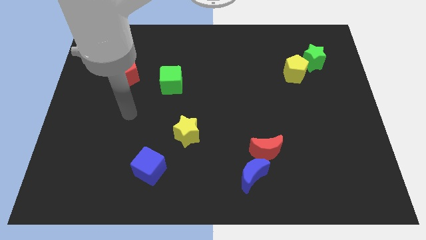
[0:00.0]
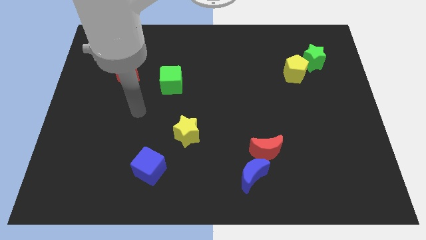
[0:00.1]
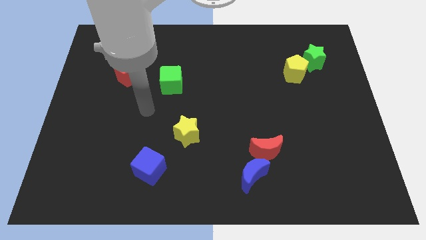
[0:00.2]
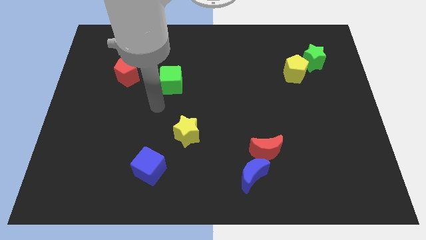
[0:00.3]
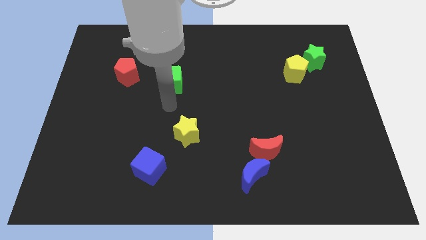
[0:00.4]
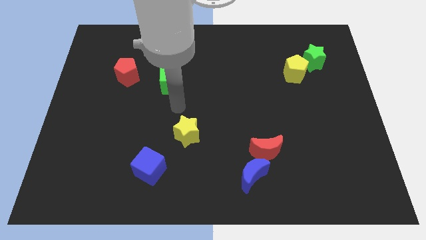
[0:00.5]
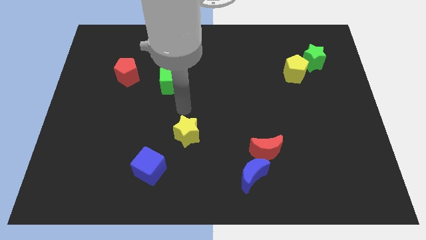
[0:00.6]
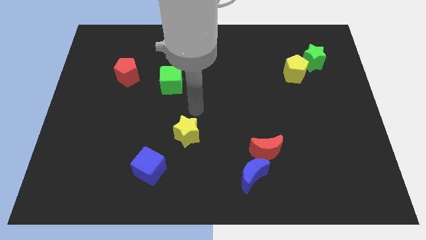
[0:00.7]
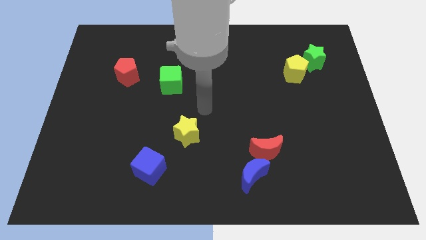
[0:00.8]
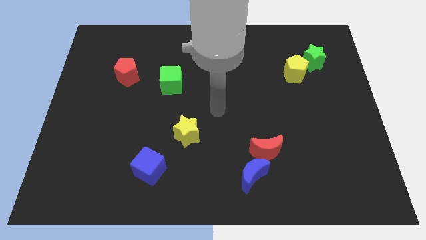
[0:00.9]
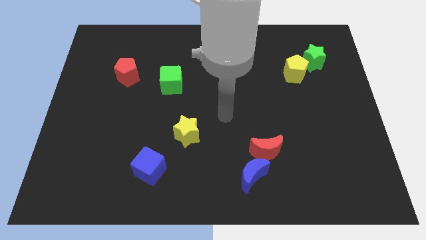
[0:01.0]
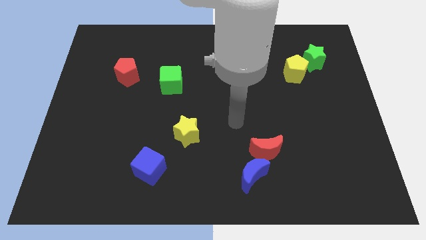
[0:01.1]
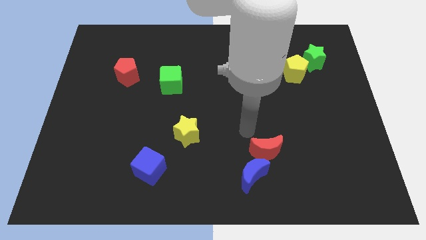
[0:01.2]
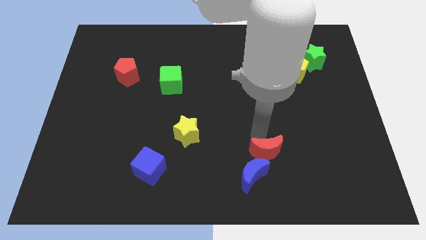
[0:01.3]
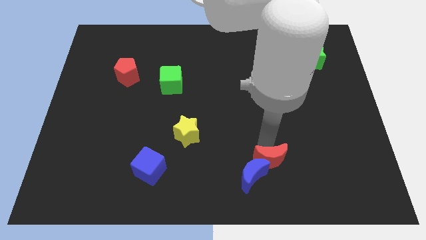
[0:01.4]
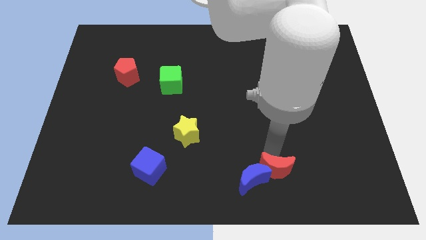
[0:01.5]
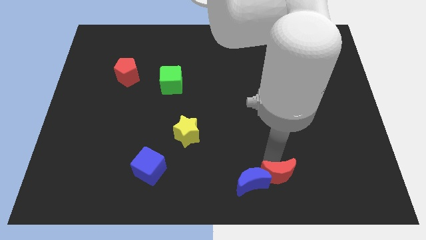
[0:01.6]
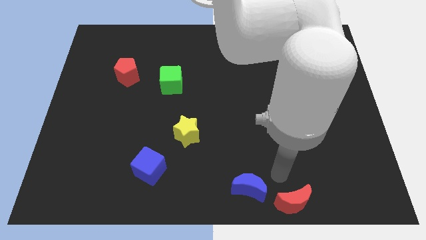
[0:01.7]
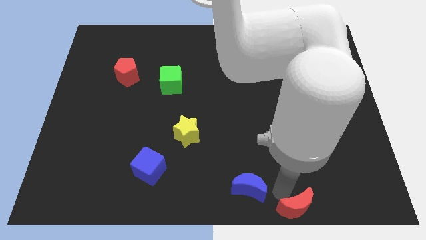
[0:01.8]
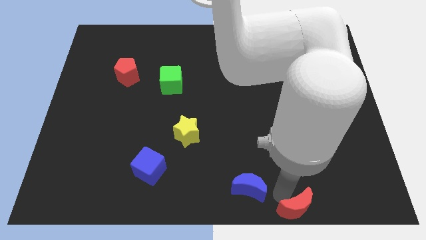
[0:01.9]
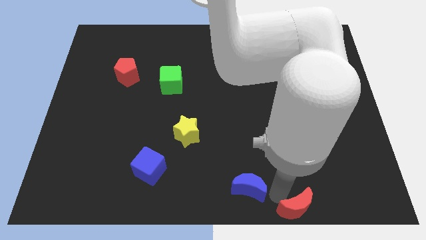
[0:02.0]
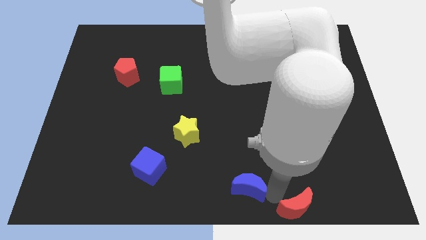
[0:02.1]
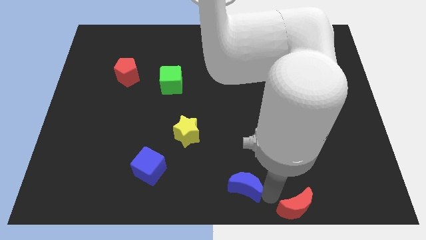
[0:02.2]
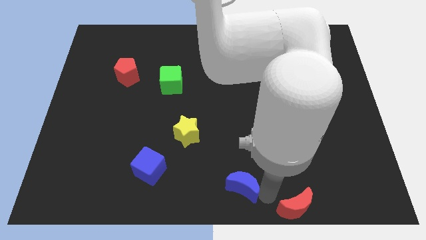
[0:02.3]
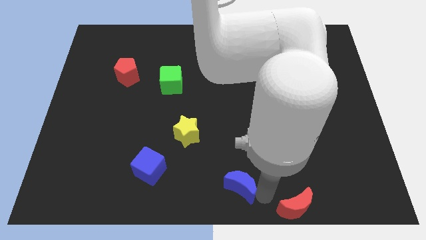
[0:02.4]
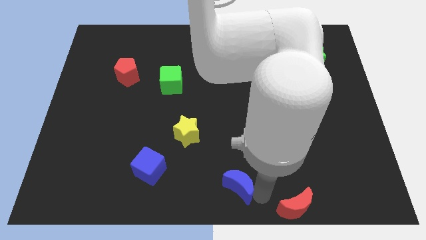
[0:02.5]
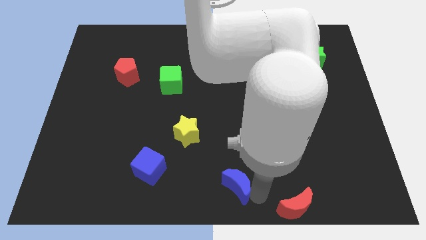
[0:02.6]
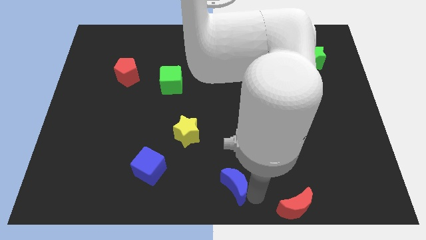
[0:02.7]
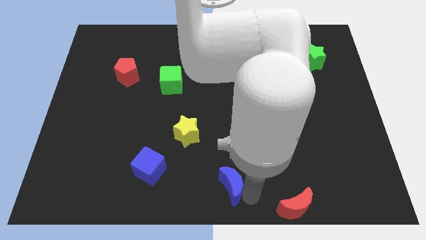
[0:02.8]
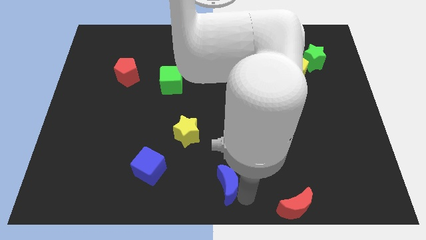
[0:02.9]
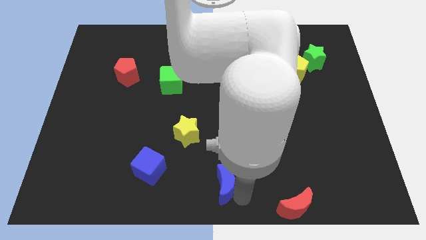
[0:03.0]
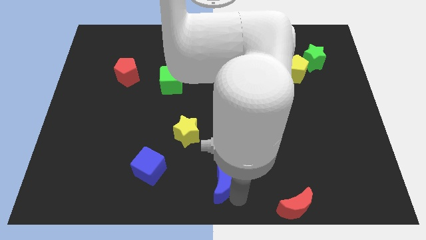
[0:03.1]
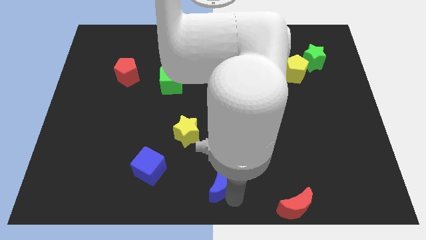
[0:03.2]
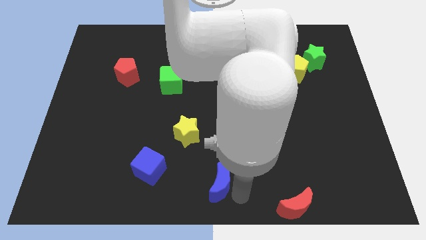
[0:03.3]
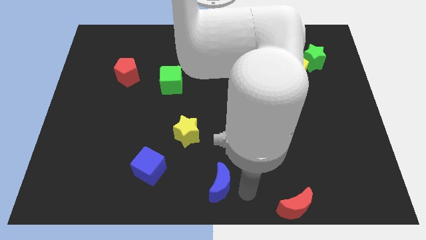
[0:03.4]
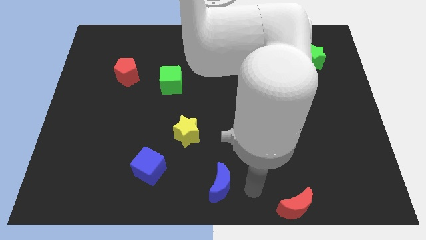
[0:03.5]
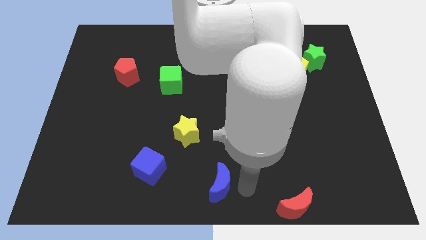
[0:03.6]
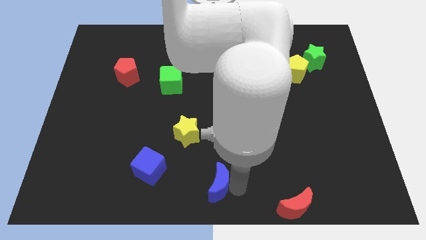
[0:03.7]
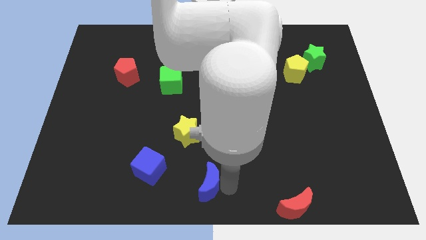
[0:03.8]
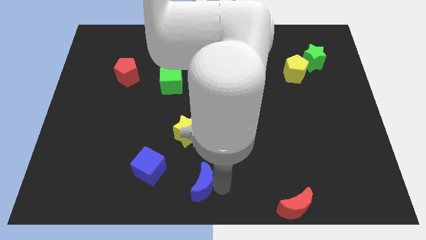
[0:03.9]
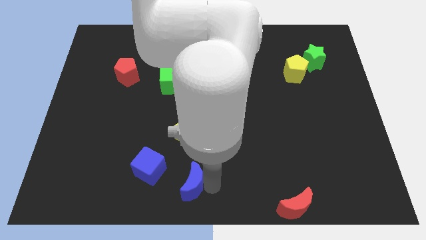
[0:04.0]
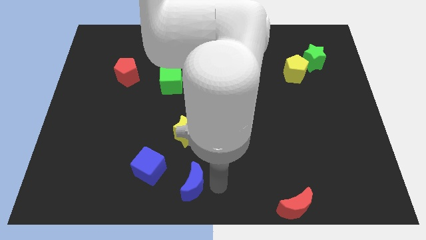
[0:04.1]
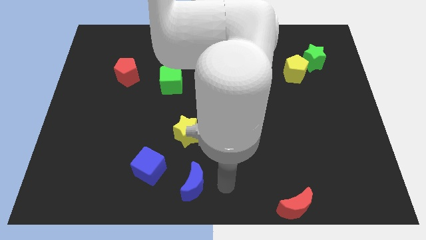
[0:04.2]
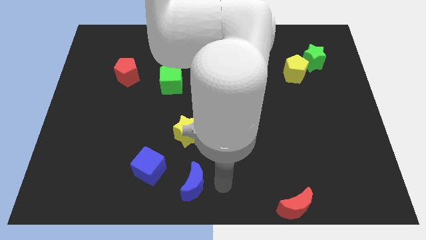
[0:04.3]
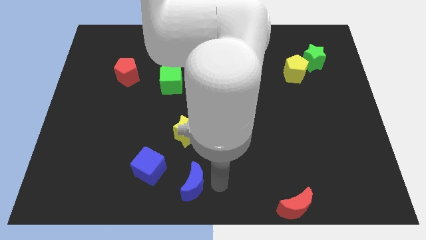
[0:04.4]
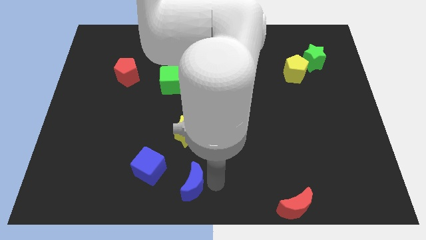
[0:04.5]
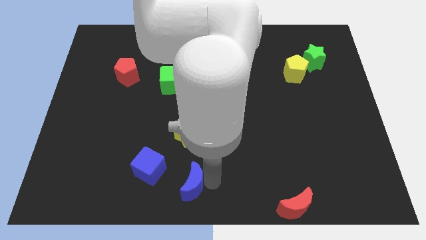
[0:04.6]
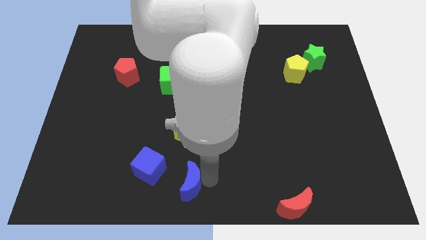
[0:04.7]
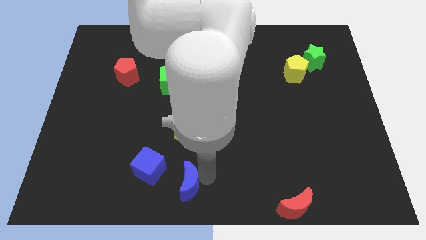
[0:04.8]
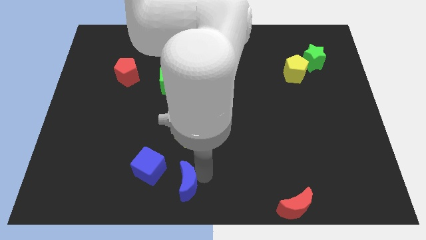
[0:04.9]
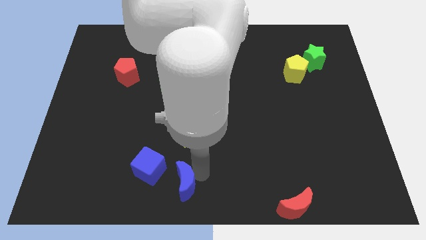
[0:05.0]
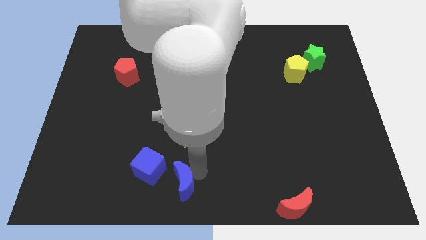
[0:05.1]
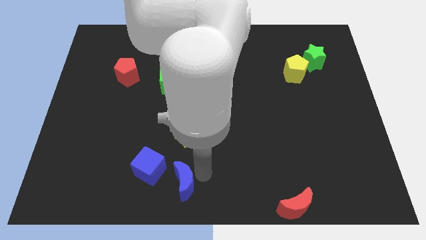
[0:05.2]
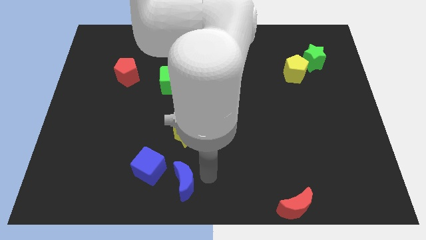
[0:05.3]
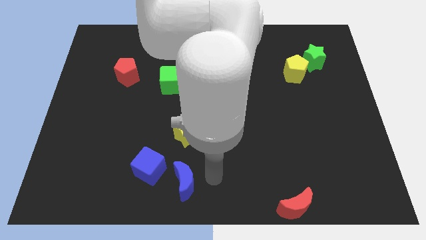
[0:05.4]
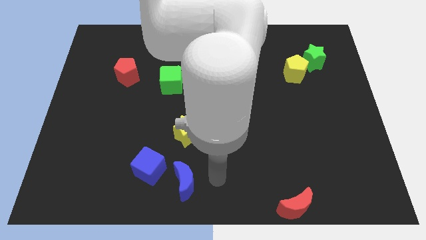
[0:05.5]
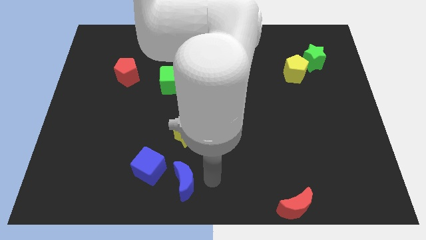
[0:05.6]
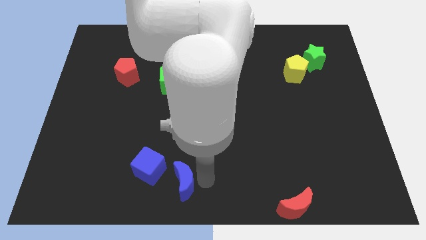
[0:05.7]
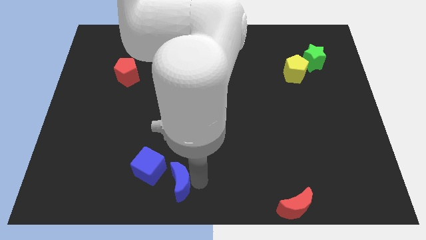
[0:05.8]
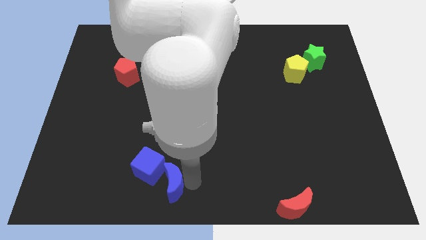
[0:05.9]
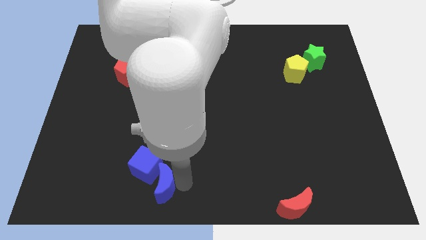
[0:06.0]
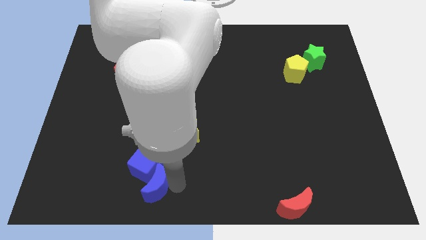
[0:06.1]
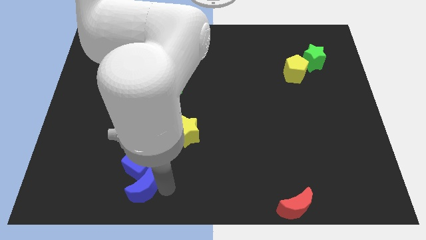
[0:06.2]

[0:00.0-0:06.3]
slide the blue moon left

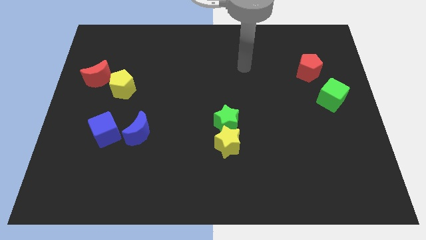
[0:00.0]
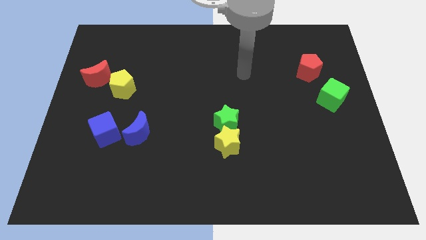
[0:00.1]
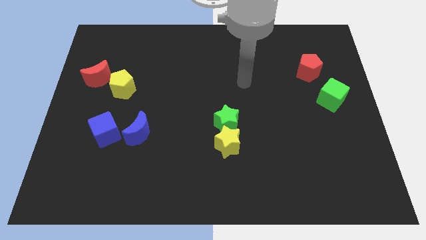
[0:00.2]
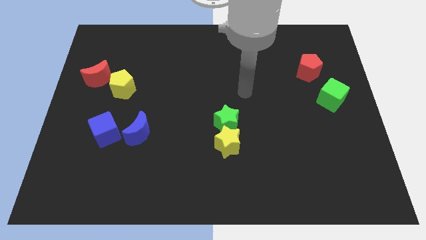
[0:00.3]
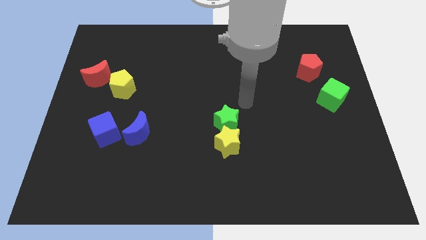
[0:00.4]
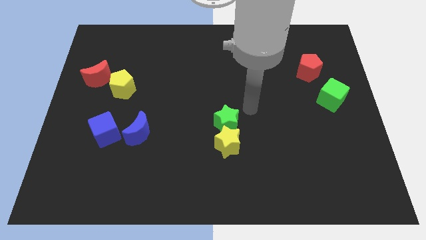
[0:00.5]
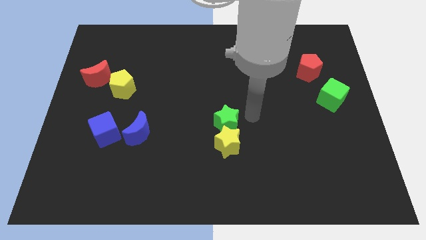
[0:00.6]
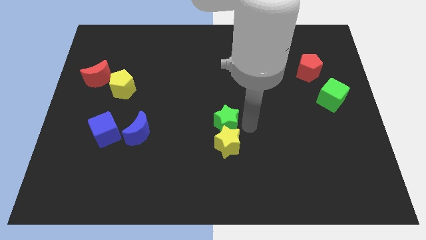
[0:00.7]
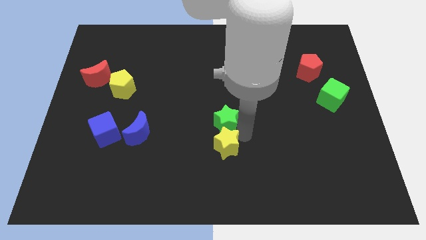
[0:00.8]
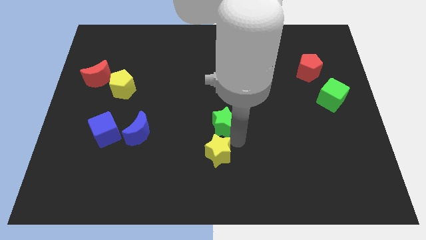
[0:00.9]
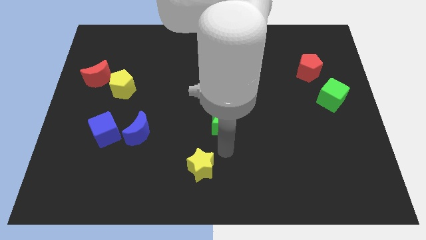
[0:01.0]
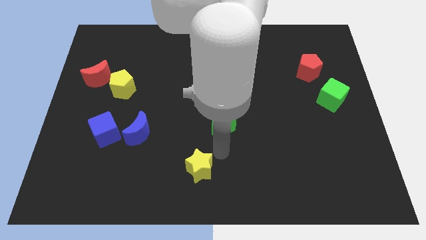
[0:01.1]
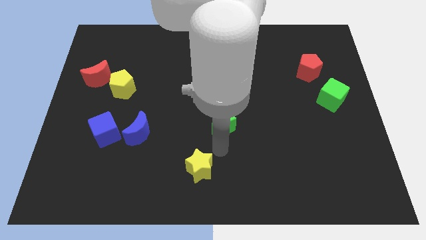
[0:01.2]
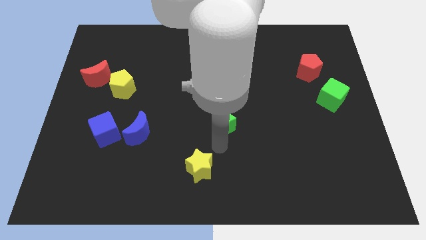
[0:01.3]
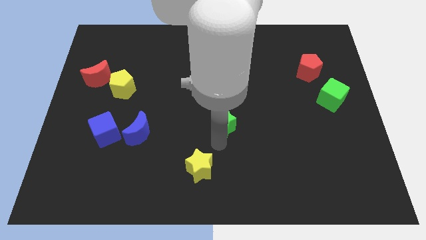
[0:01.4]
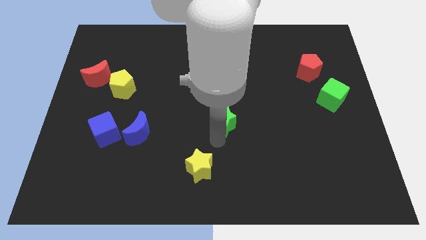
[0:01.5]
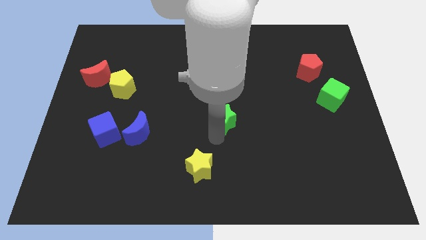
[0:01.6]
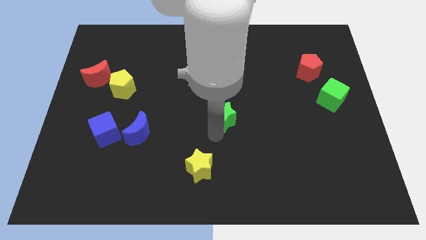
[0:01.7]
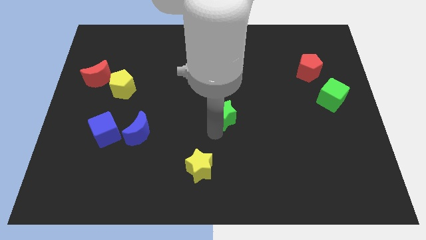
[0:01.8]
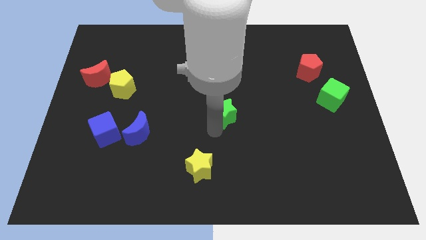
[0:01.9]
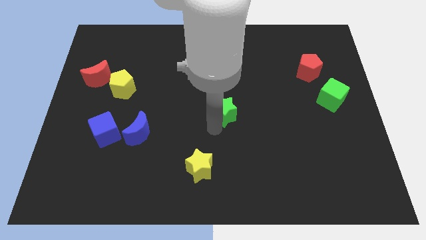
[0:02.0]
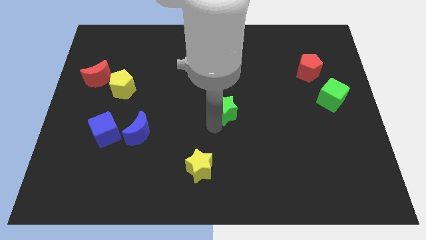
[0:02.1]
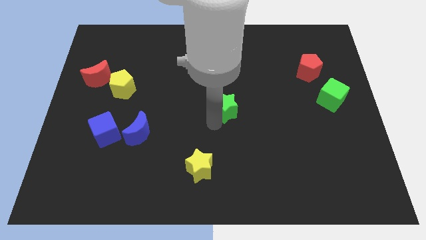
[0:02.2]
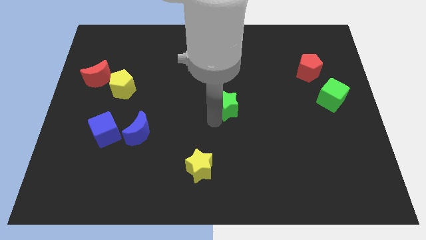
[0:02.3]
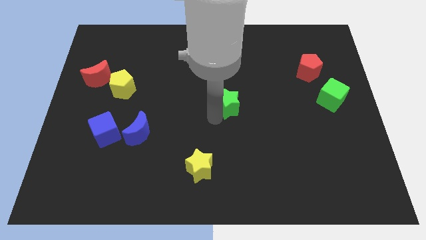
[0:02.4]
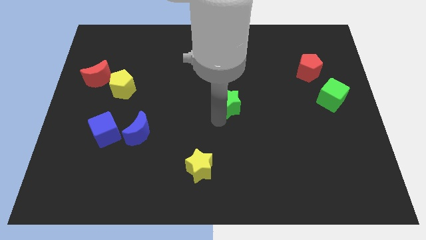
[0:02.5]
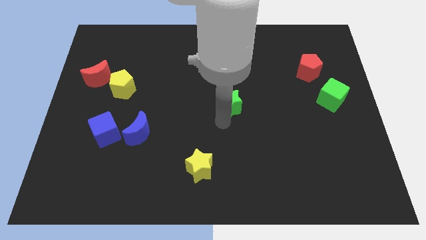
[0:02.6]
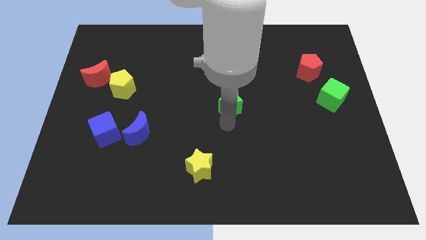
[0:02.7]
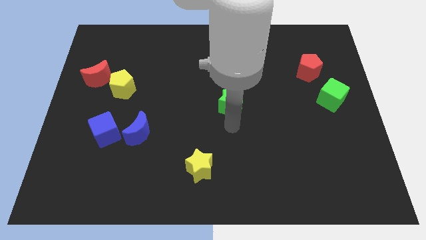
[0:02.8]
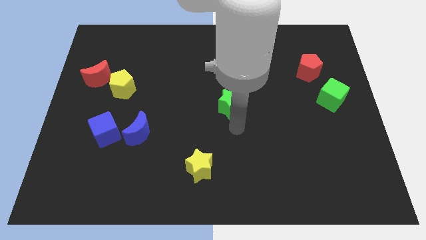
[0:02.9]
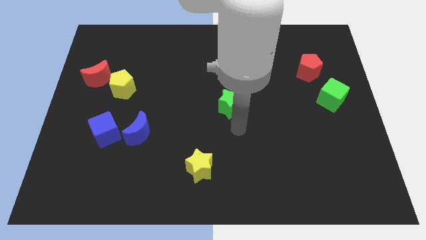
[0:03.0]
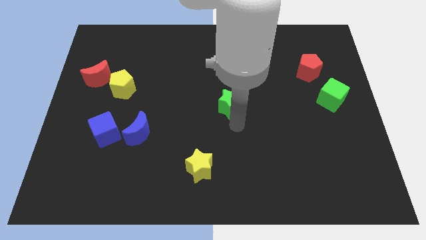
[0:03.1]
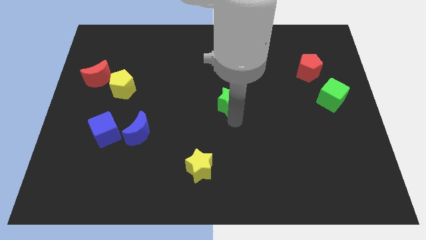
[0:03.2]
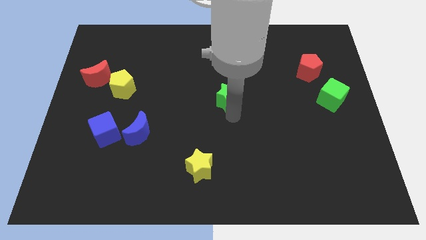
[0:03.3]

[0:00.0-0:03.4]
slightly slide the green star up
